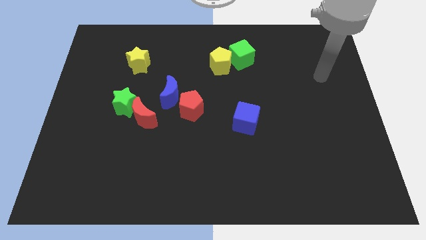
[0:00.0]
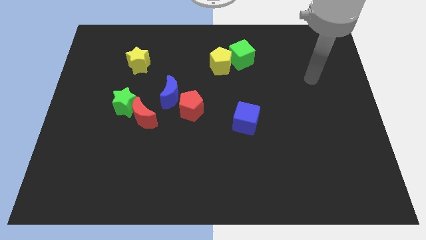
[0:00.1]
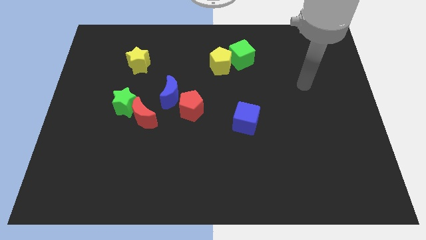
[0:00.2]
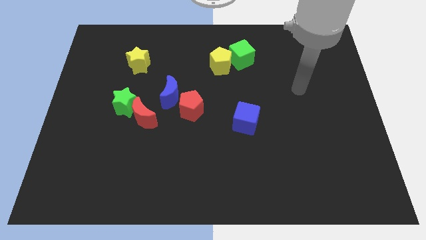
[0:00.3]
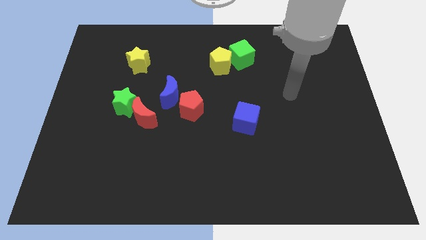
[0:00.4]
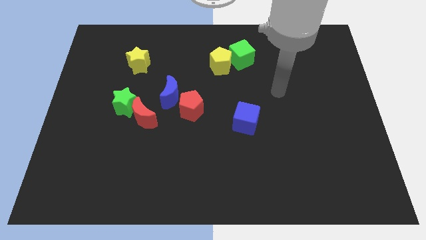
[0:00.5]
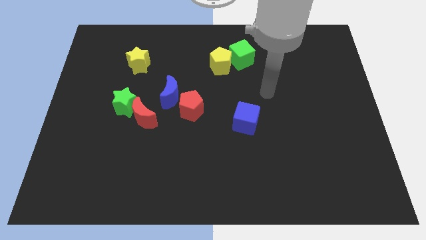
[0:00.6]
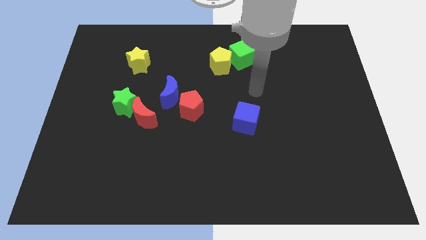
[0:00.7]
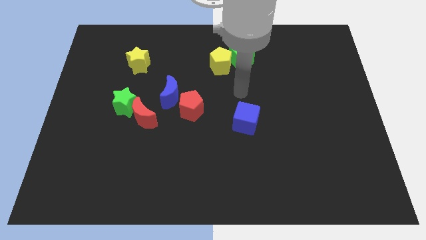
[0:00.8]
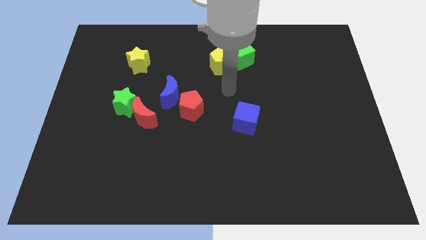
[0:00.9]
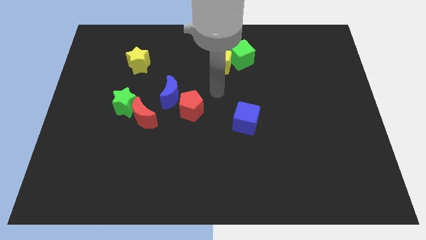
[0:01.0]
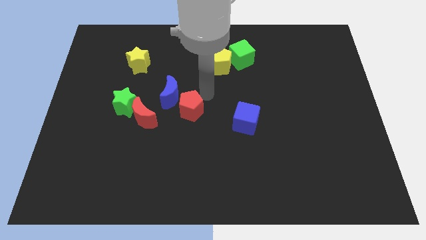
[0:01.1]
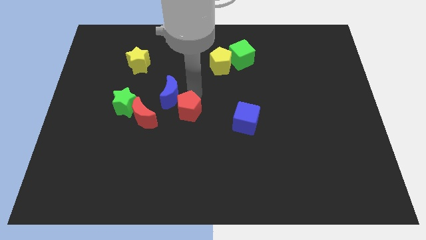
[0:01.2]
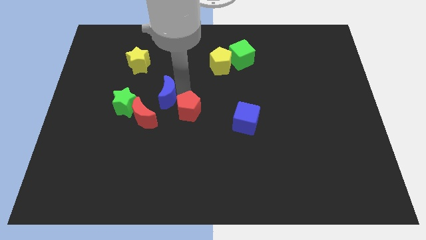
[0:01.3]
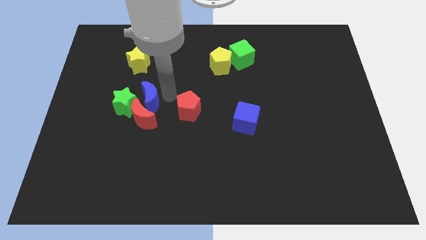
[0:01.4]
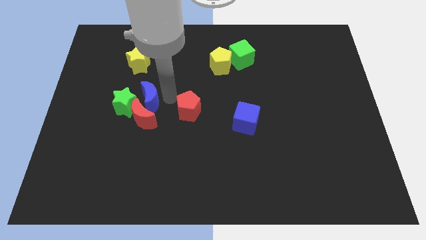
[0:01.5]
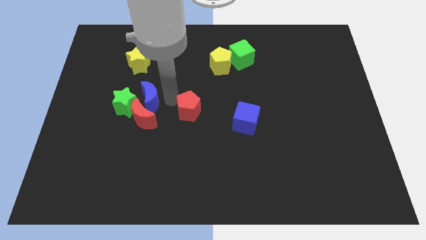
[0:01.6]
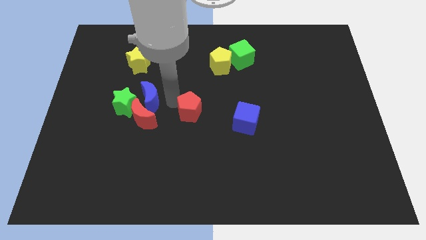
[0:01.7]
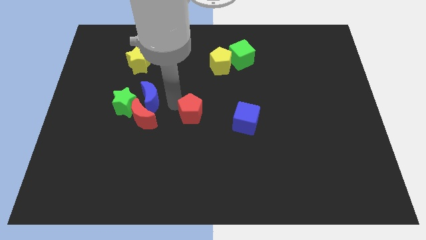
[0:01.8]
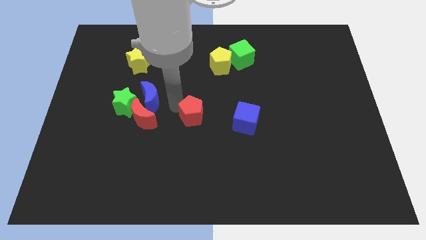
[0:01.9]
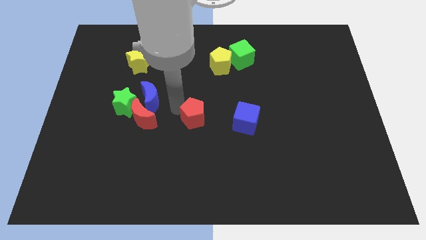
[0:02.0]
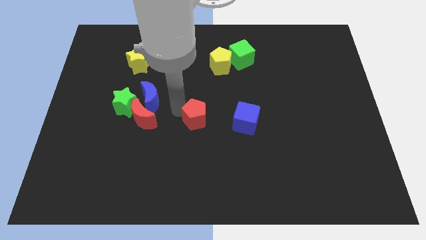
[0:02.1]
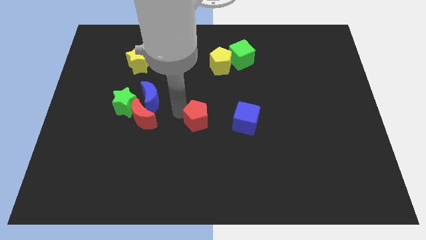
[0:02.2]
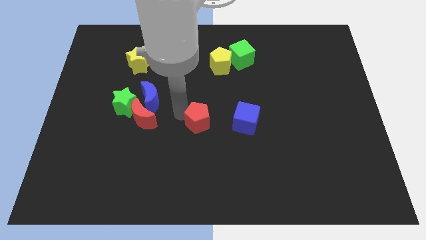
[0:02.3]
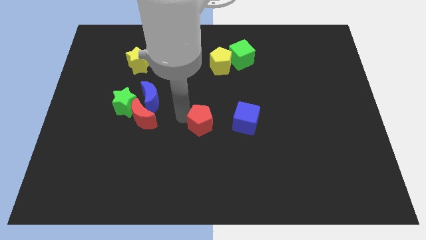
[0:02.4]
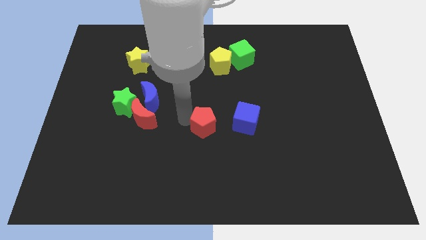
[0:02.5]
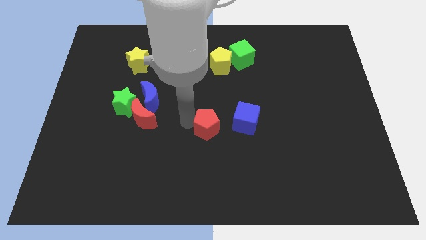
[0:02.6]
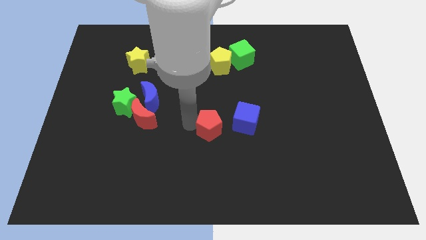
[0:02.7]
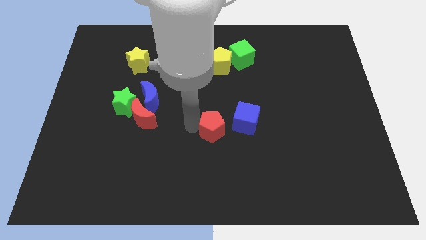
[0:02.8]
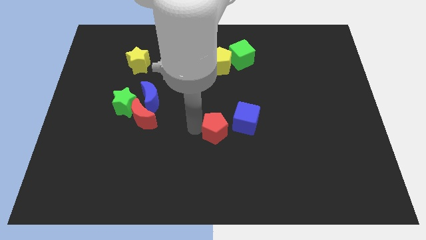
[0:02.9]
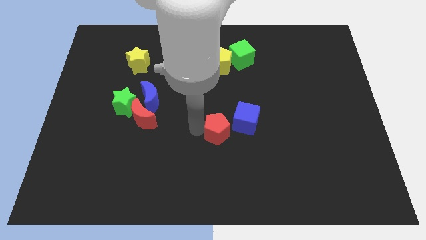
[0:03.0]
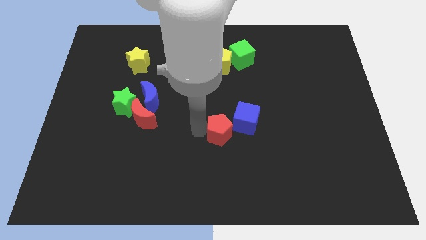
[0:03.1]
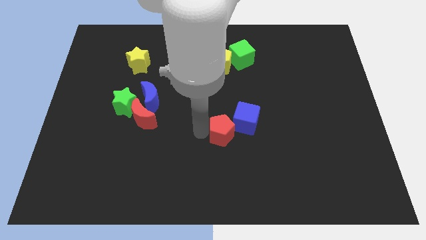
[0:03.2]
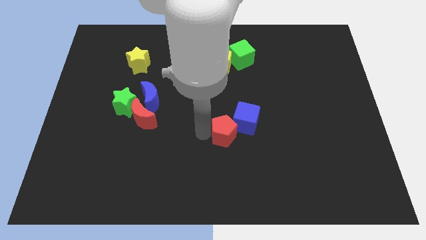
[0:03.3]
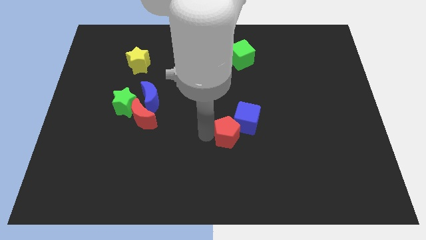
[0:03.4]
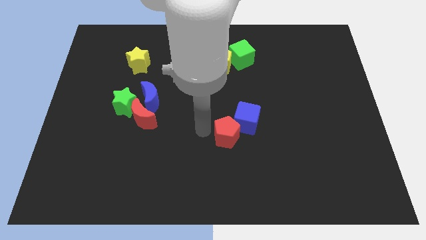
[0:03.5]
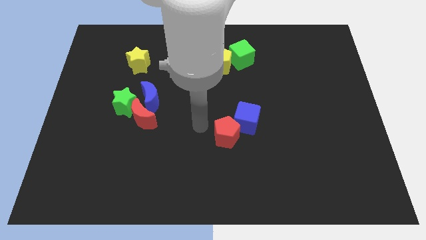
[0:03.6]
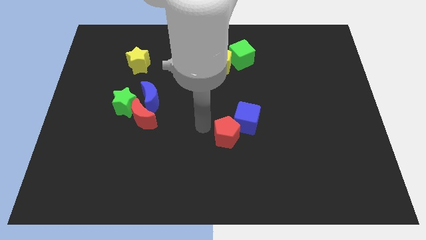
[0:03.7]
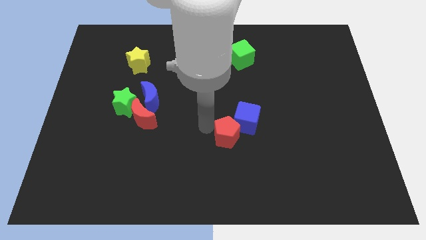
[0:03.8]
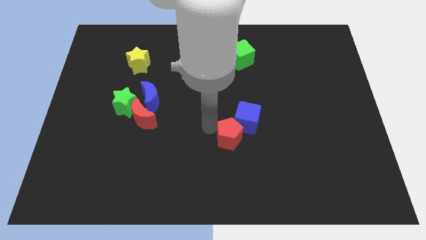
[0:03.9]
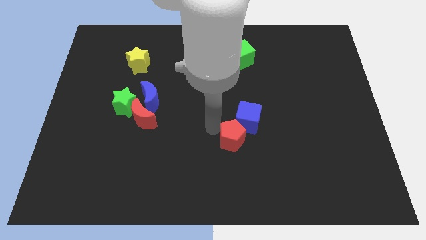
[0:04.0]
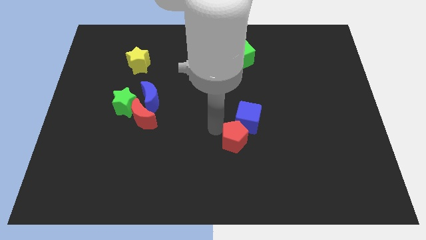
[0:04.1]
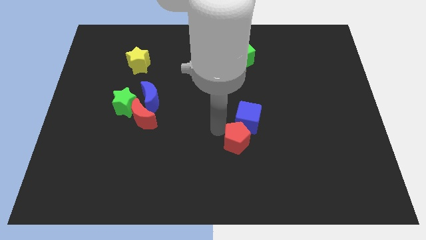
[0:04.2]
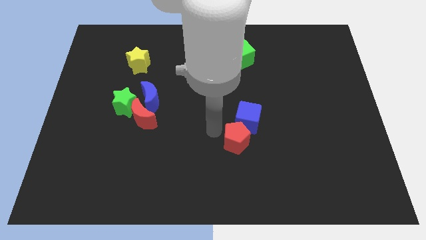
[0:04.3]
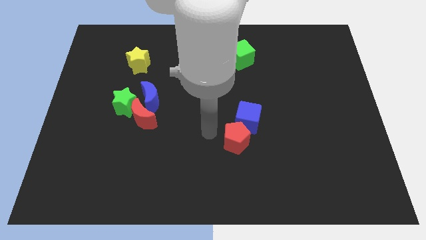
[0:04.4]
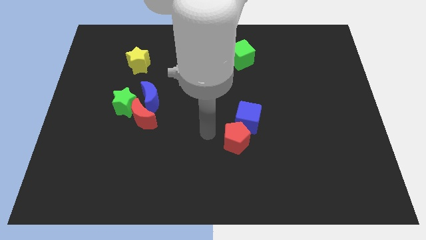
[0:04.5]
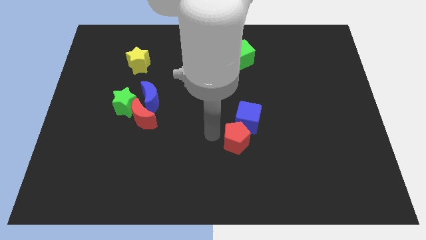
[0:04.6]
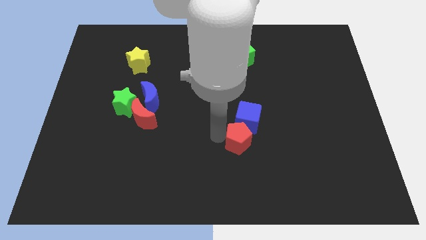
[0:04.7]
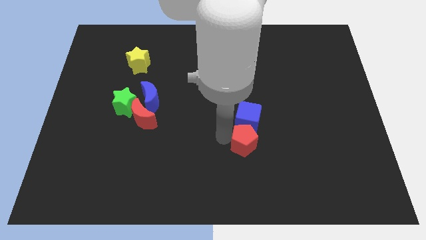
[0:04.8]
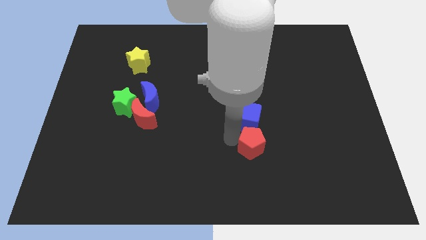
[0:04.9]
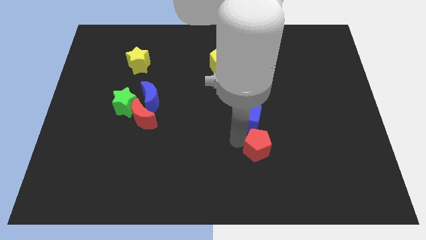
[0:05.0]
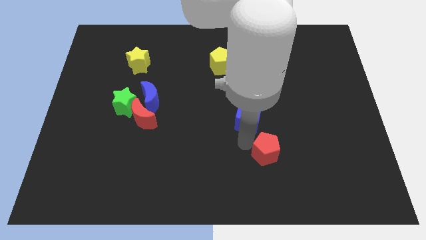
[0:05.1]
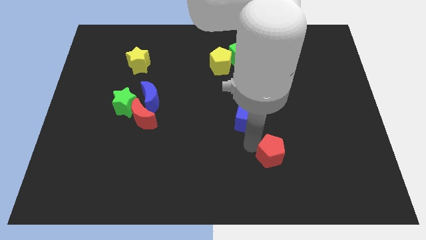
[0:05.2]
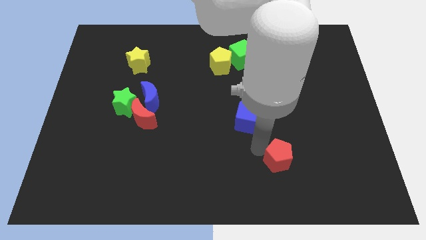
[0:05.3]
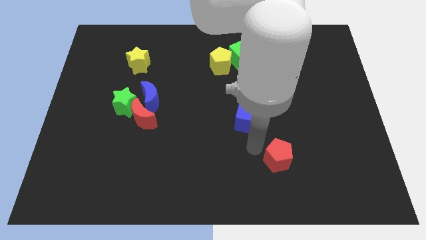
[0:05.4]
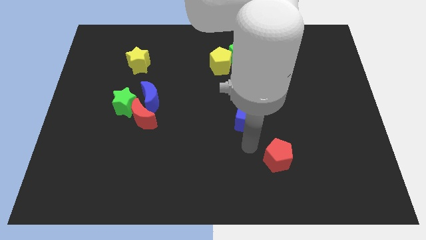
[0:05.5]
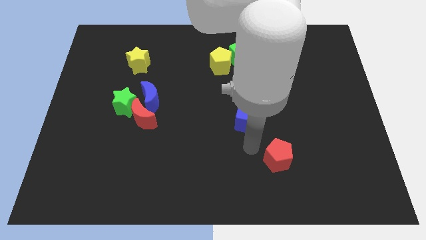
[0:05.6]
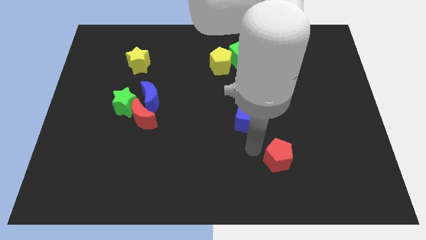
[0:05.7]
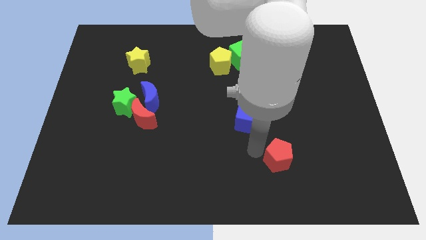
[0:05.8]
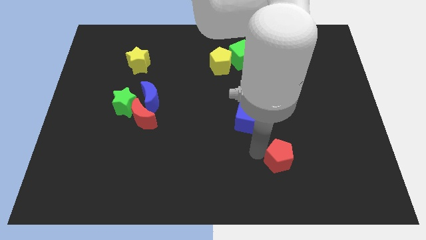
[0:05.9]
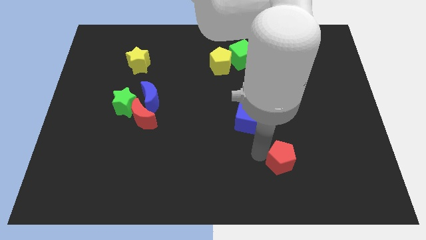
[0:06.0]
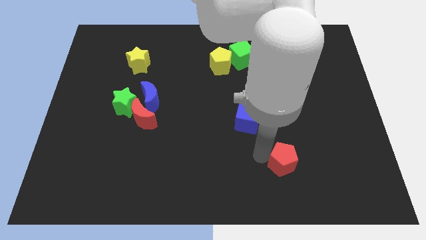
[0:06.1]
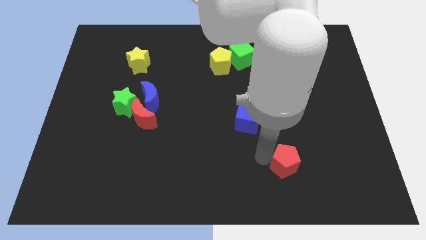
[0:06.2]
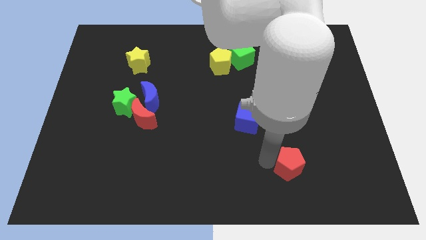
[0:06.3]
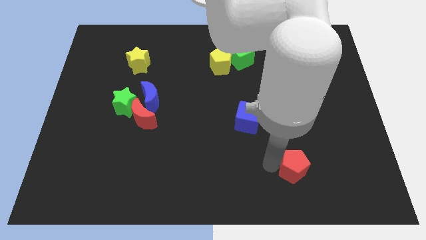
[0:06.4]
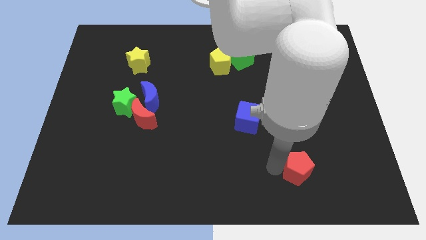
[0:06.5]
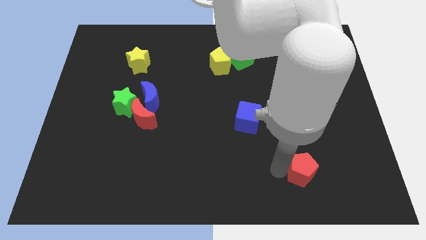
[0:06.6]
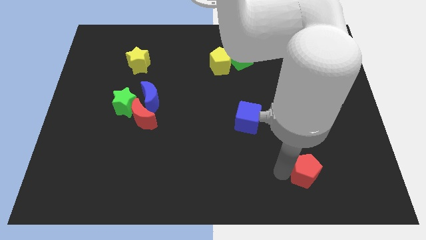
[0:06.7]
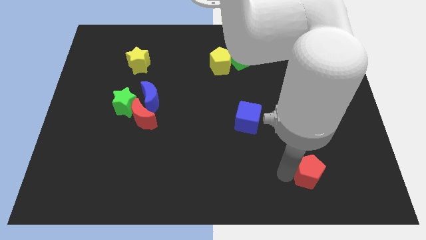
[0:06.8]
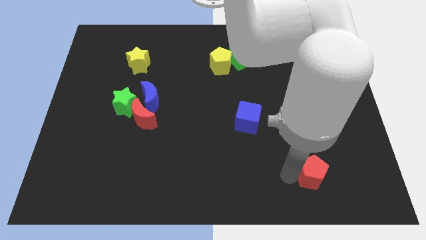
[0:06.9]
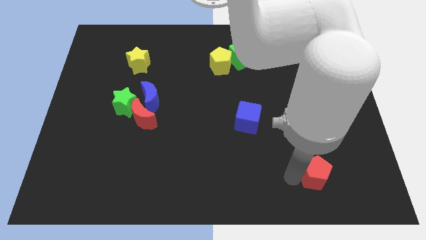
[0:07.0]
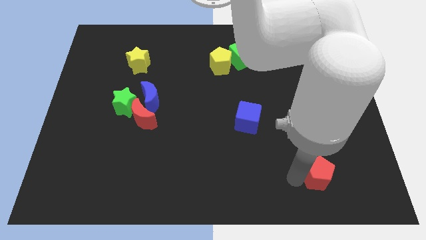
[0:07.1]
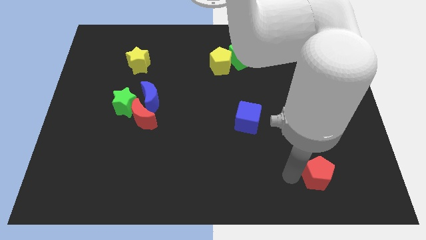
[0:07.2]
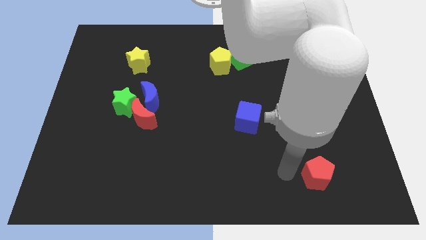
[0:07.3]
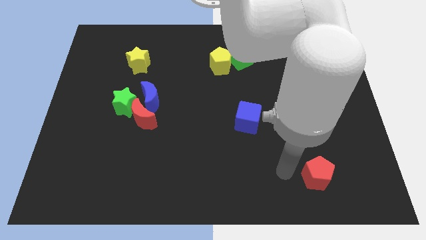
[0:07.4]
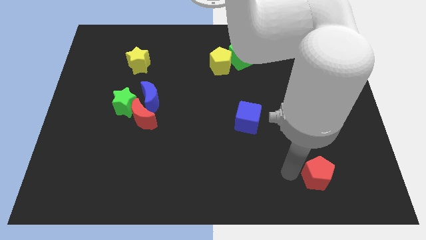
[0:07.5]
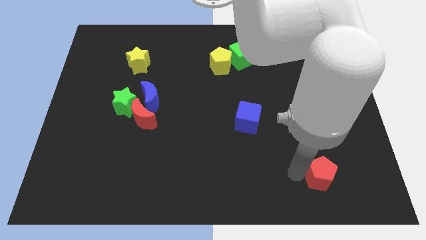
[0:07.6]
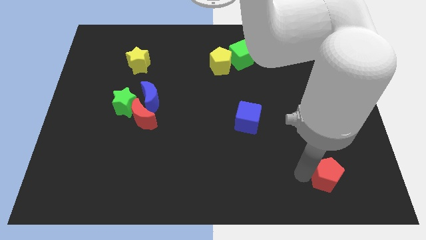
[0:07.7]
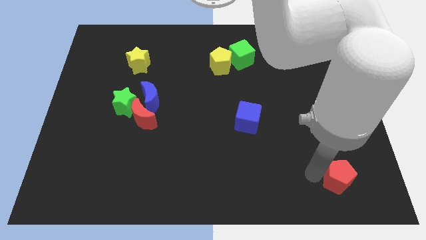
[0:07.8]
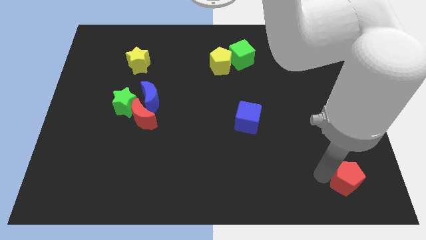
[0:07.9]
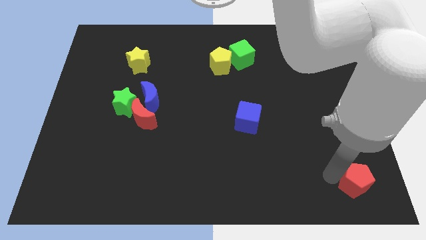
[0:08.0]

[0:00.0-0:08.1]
put the red pentagon to the bottom right
